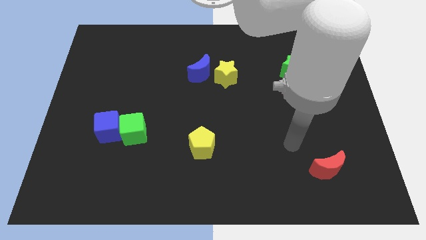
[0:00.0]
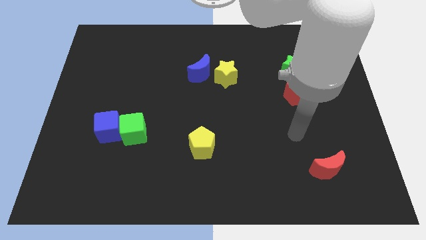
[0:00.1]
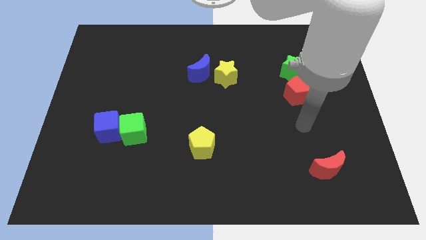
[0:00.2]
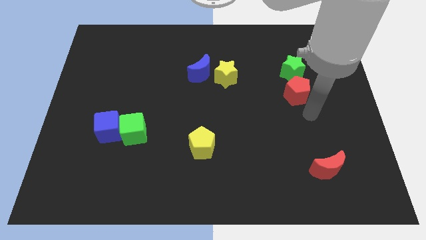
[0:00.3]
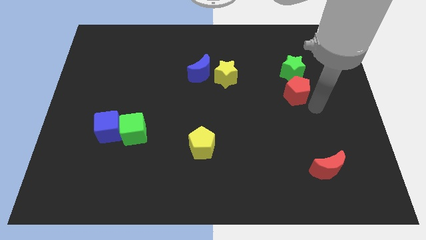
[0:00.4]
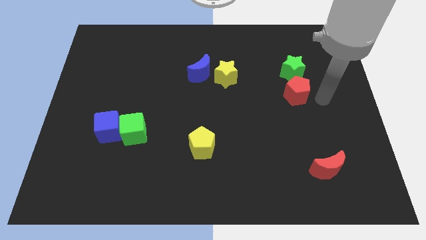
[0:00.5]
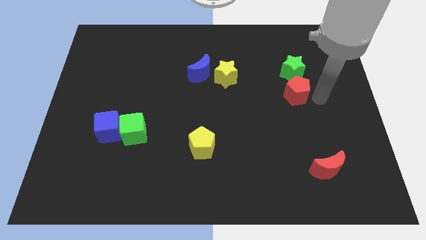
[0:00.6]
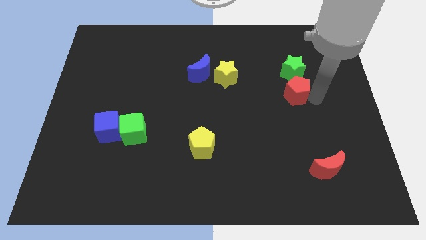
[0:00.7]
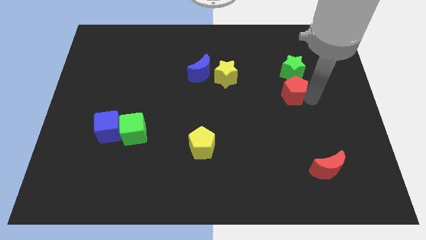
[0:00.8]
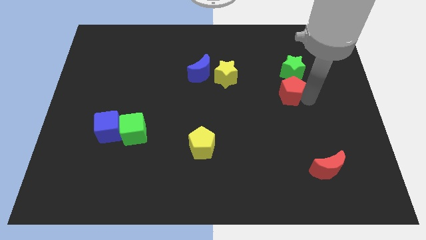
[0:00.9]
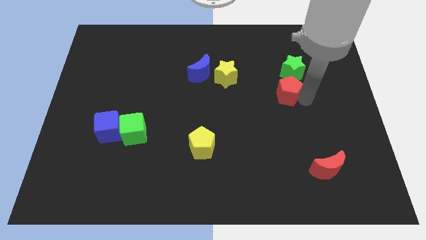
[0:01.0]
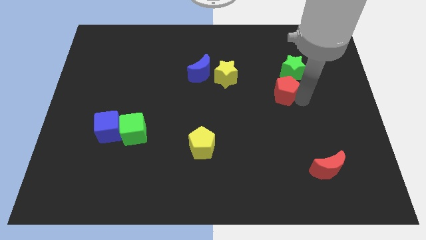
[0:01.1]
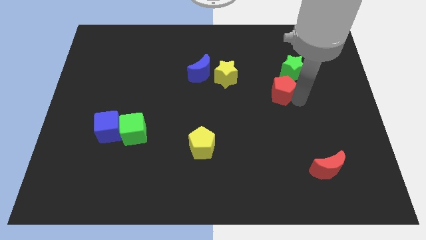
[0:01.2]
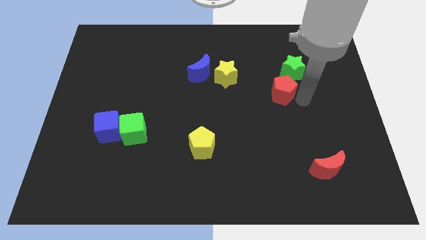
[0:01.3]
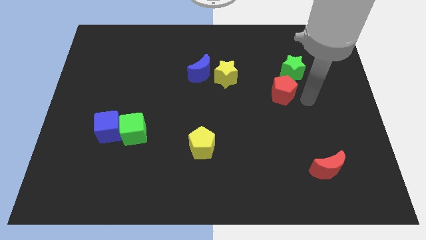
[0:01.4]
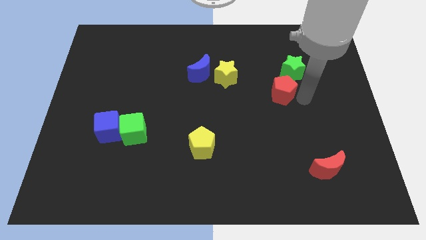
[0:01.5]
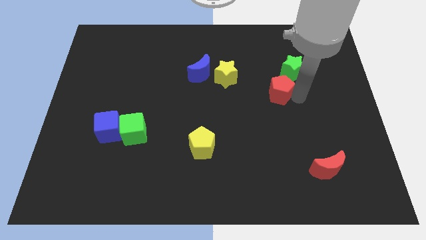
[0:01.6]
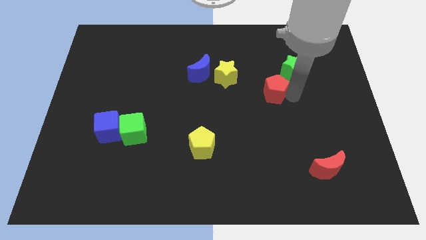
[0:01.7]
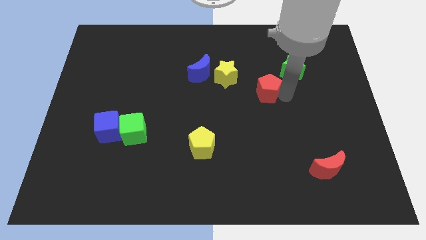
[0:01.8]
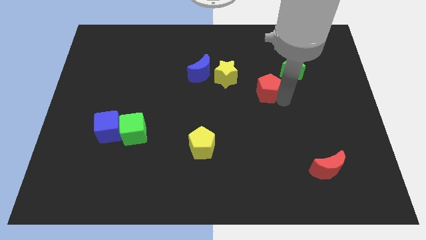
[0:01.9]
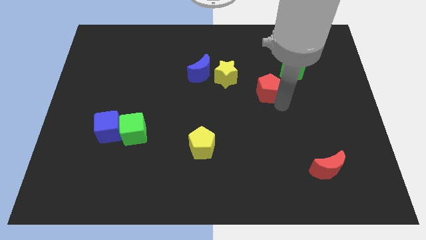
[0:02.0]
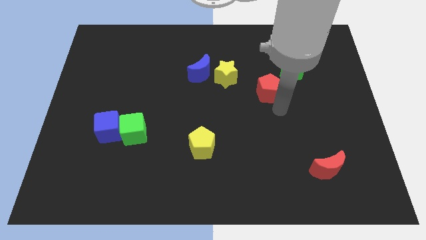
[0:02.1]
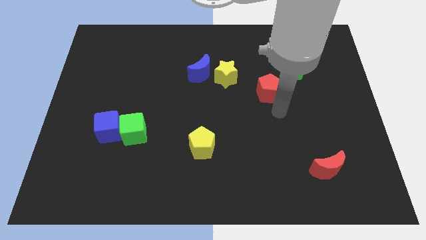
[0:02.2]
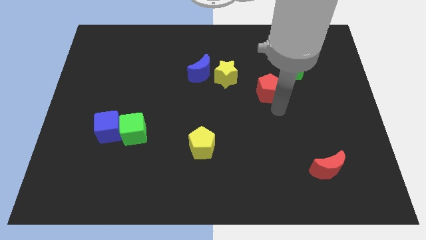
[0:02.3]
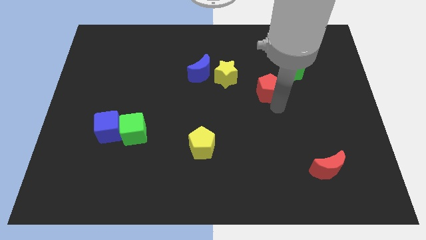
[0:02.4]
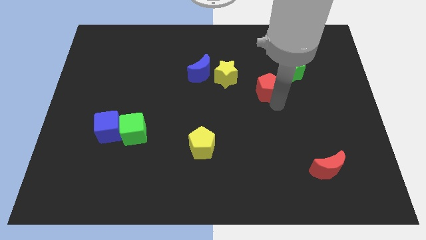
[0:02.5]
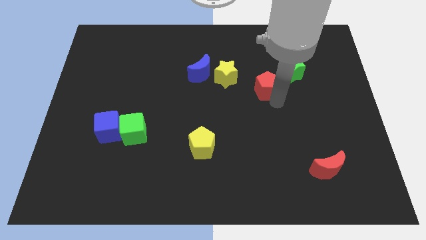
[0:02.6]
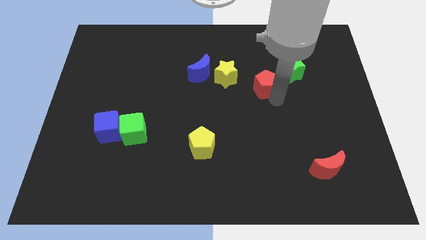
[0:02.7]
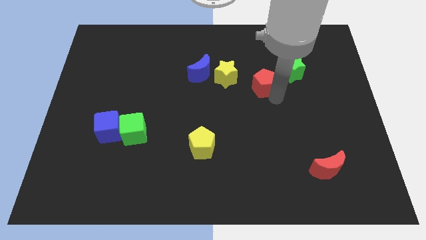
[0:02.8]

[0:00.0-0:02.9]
move the red pentagon upwards and to the left diagonally a bit

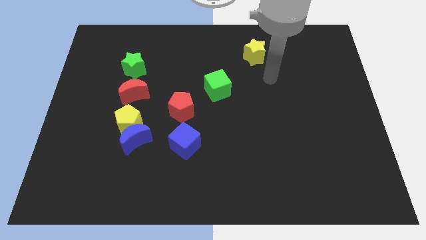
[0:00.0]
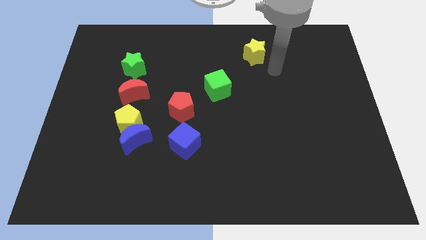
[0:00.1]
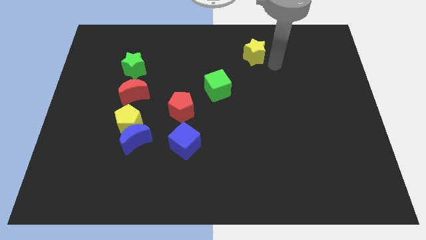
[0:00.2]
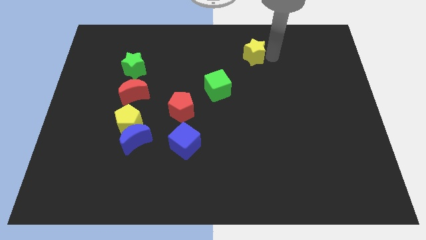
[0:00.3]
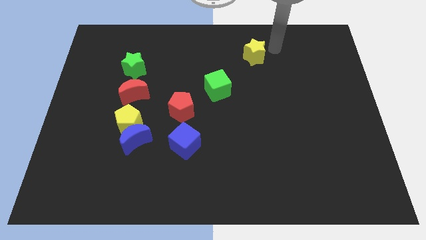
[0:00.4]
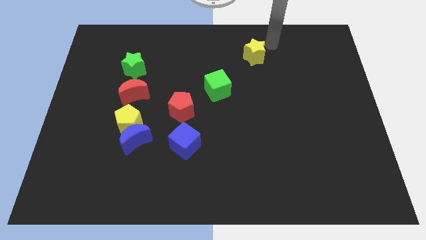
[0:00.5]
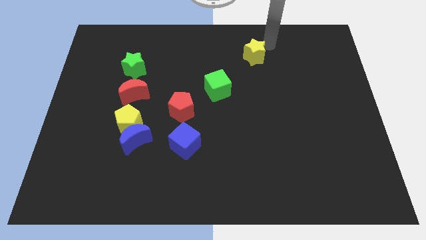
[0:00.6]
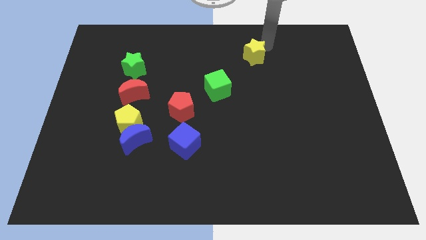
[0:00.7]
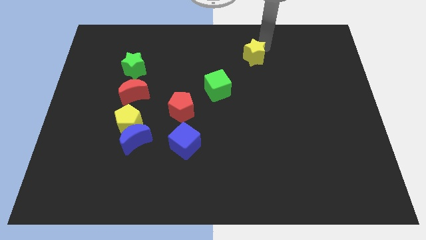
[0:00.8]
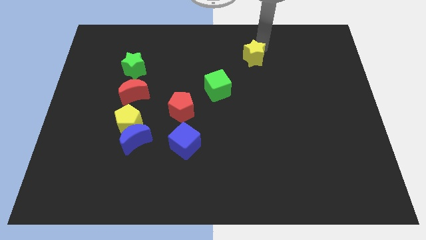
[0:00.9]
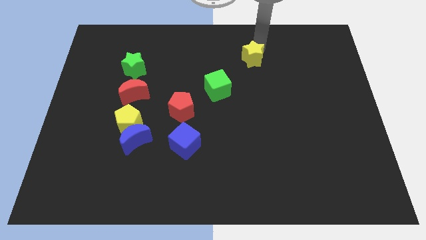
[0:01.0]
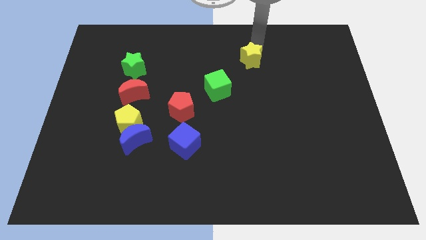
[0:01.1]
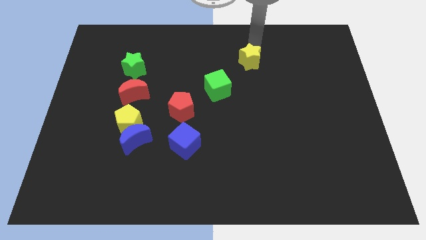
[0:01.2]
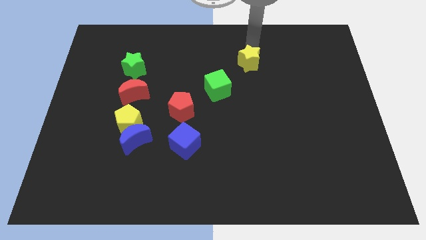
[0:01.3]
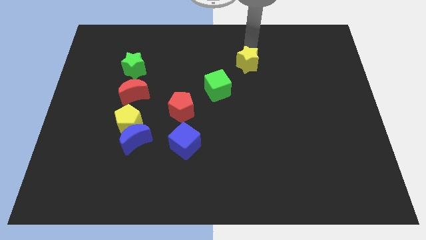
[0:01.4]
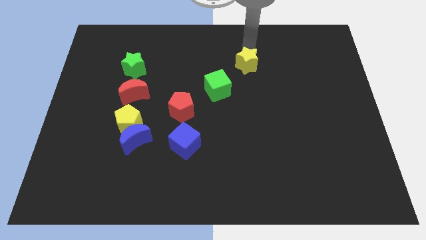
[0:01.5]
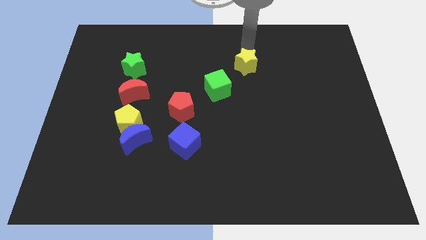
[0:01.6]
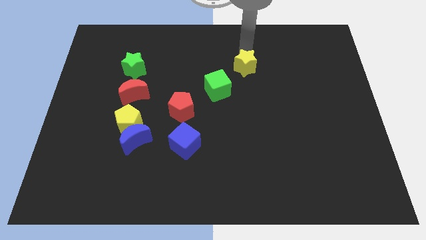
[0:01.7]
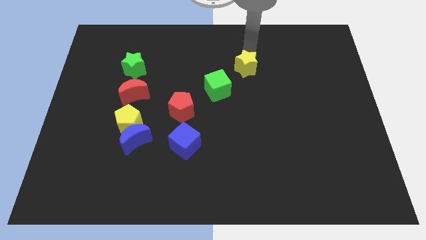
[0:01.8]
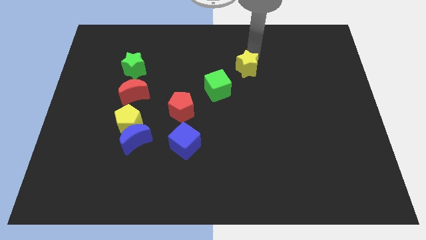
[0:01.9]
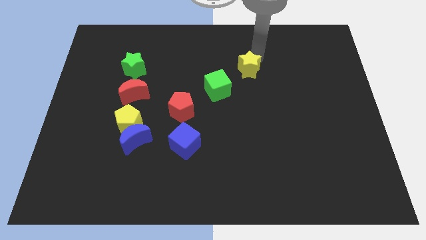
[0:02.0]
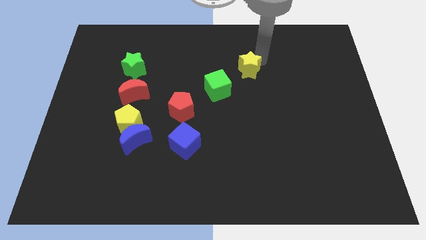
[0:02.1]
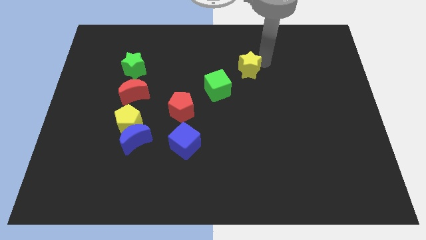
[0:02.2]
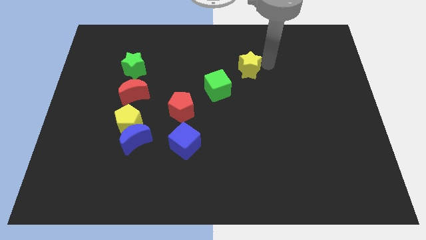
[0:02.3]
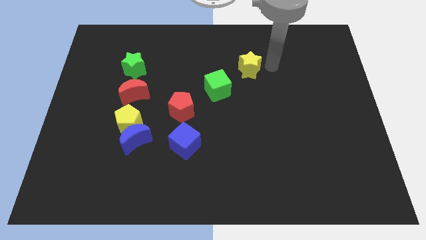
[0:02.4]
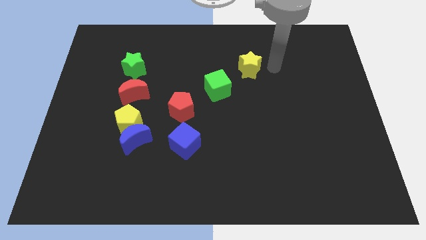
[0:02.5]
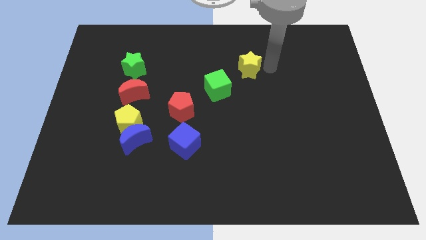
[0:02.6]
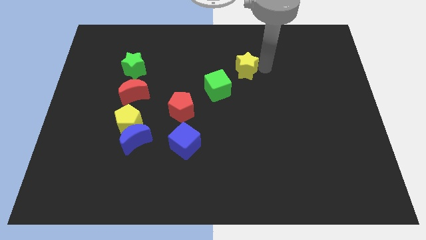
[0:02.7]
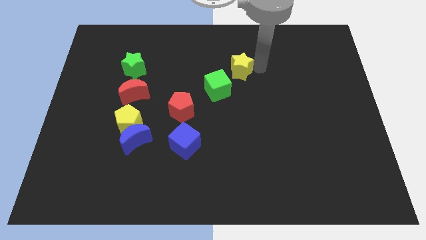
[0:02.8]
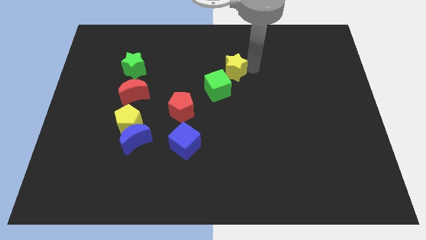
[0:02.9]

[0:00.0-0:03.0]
move the yellow star downwards and then left a little bit

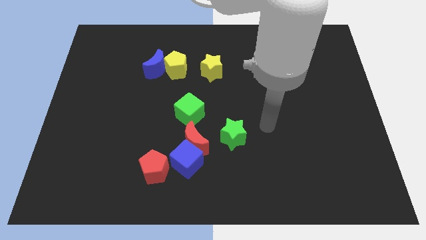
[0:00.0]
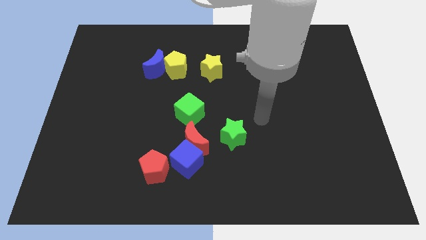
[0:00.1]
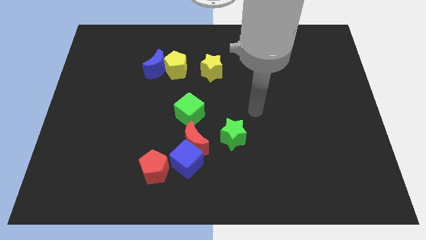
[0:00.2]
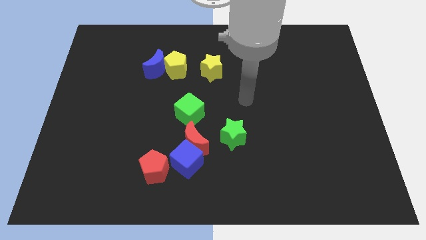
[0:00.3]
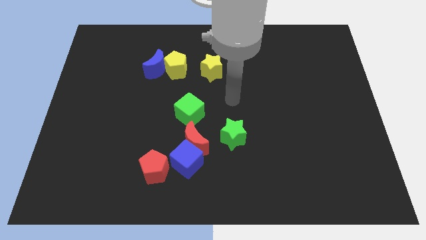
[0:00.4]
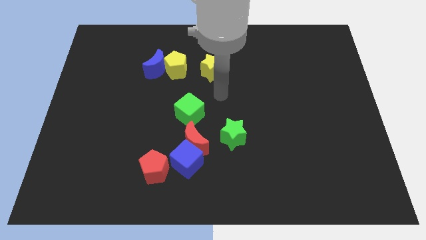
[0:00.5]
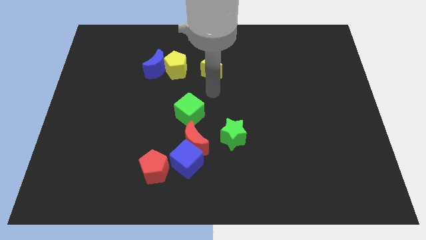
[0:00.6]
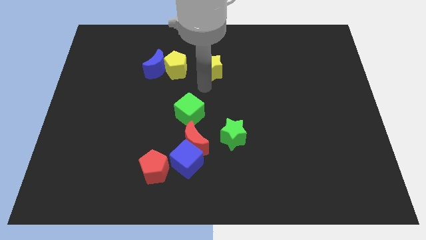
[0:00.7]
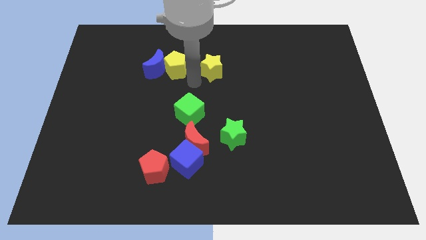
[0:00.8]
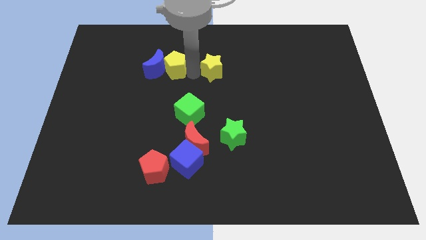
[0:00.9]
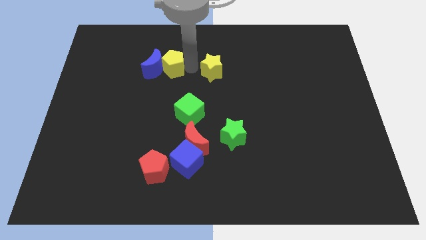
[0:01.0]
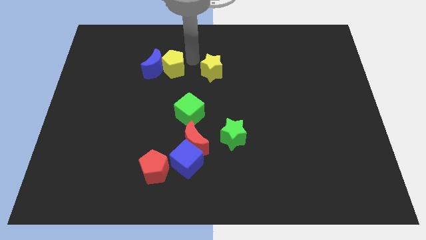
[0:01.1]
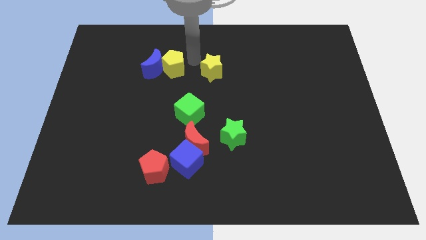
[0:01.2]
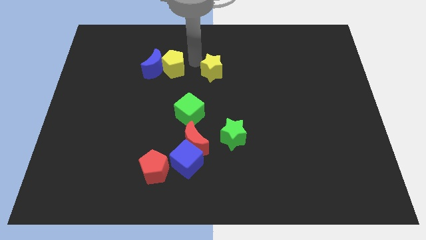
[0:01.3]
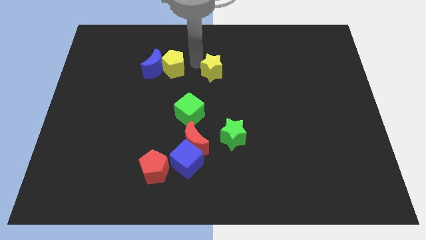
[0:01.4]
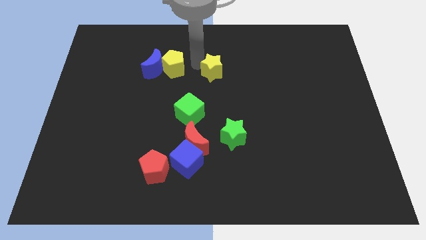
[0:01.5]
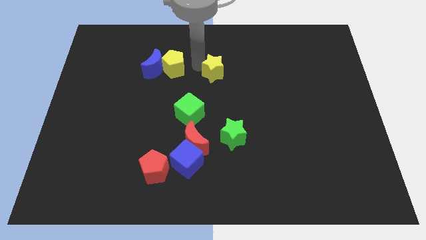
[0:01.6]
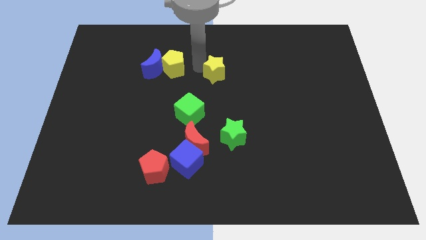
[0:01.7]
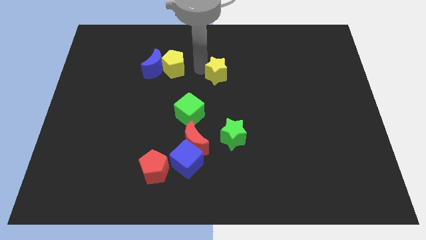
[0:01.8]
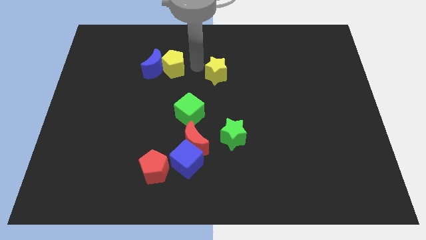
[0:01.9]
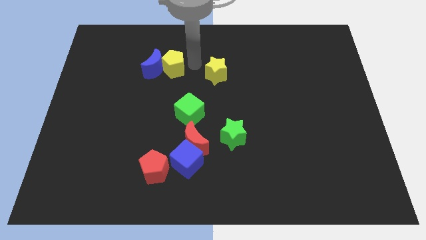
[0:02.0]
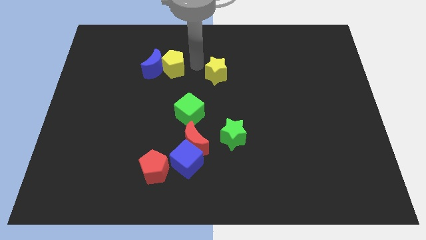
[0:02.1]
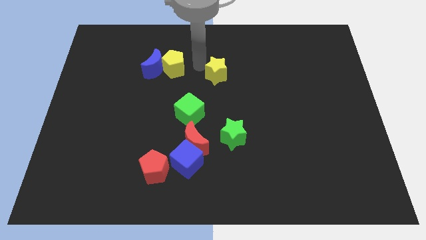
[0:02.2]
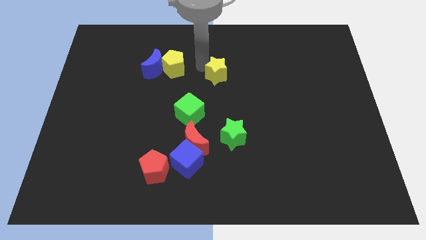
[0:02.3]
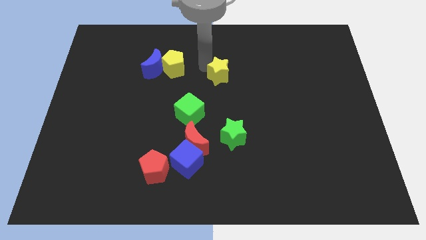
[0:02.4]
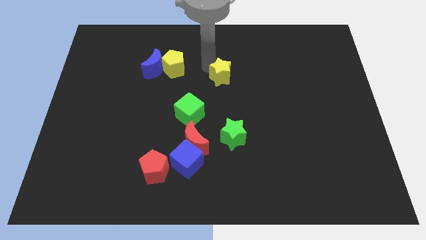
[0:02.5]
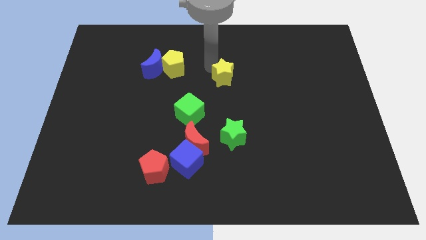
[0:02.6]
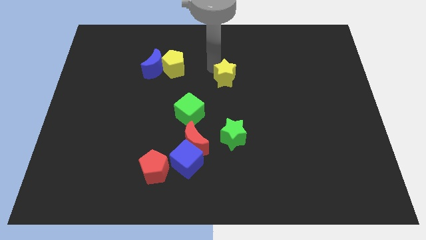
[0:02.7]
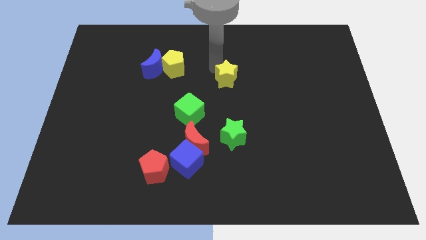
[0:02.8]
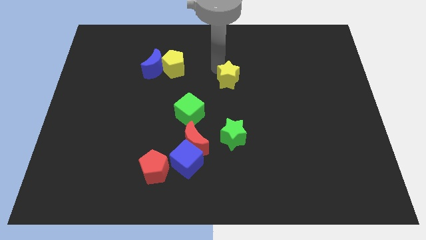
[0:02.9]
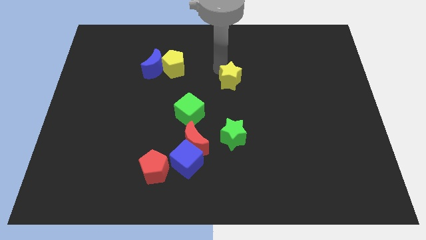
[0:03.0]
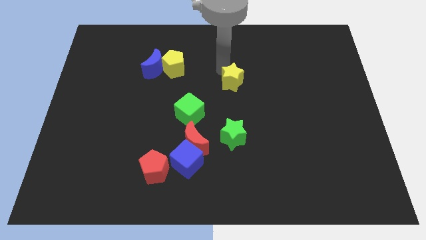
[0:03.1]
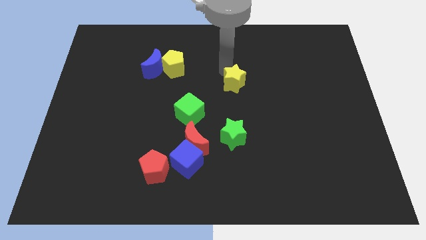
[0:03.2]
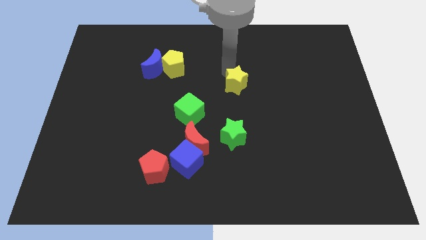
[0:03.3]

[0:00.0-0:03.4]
push the yellow star a little diagonally down and to the right
